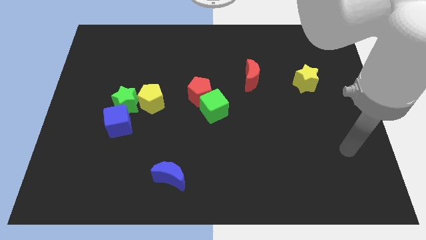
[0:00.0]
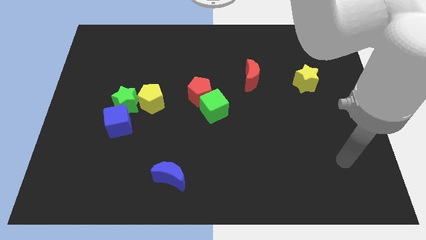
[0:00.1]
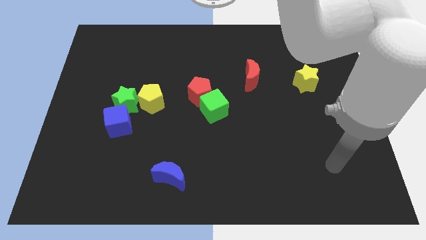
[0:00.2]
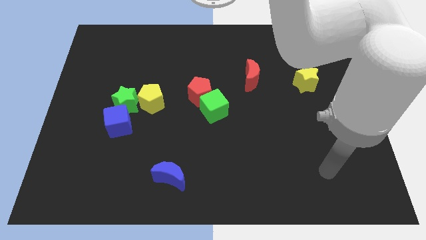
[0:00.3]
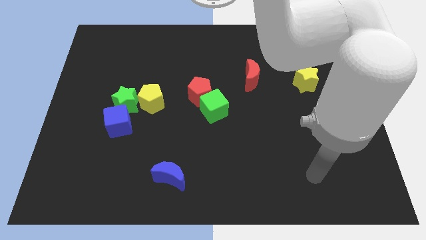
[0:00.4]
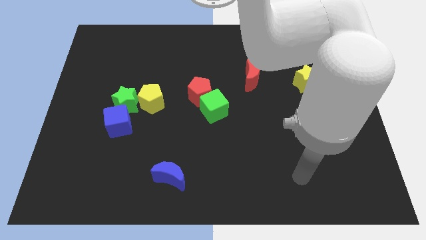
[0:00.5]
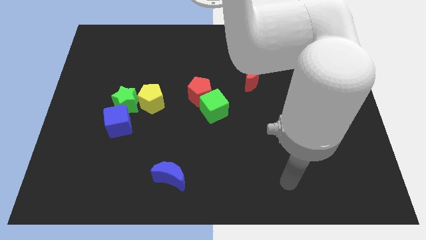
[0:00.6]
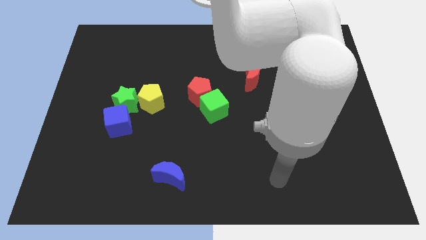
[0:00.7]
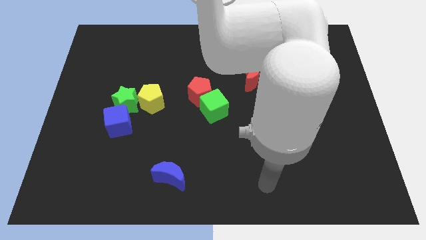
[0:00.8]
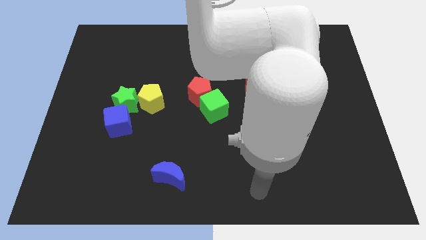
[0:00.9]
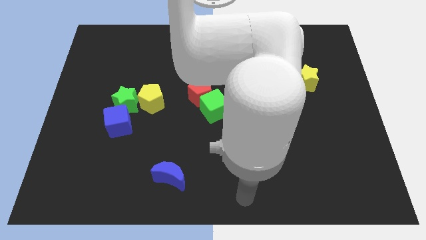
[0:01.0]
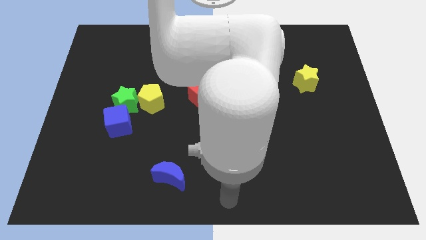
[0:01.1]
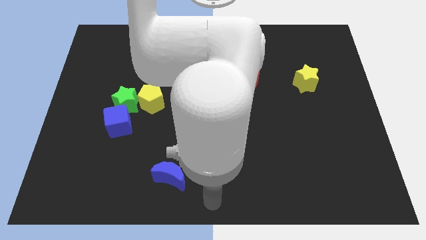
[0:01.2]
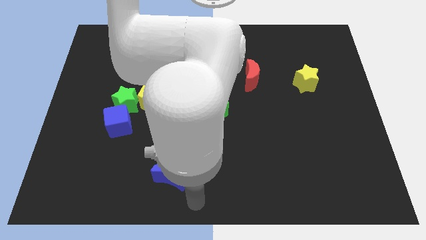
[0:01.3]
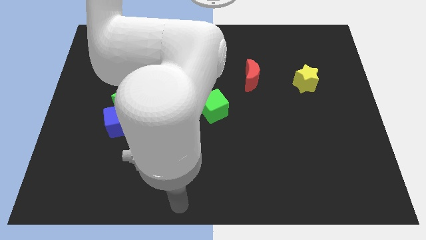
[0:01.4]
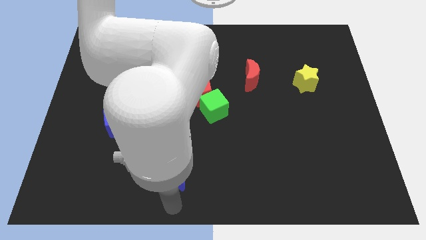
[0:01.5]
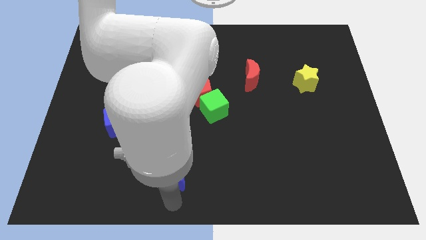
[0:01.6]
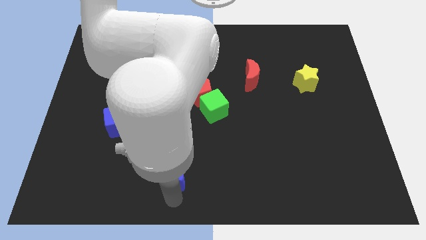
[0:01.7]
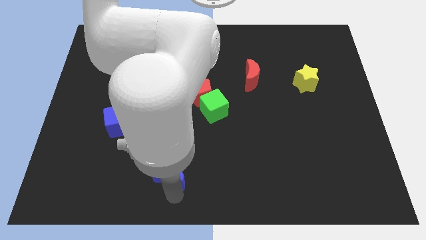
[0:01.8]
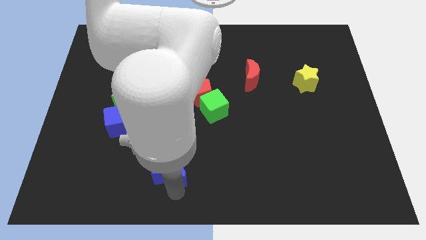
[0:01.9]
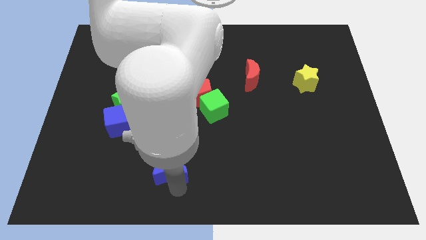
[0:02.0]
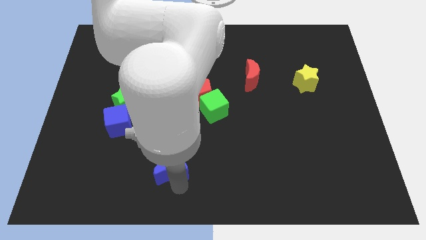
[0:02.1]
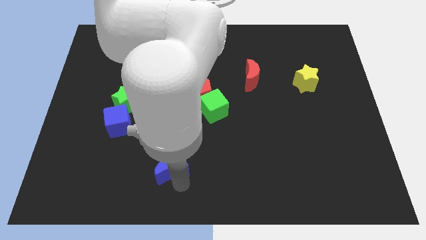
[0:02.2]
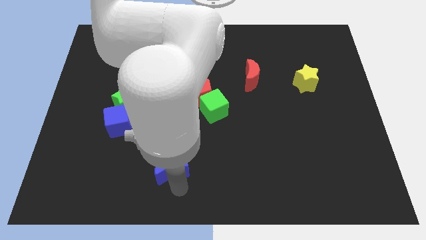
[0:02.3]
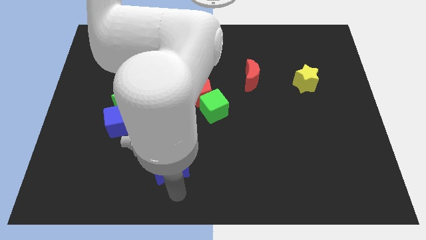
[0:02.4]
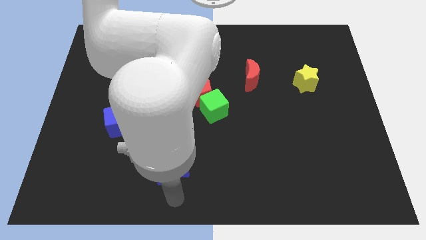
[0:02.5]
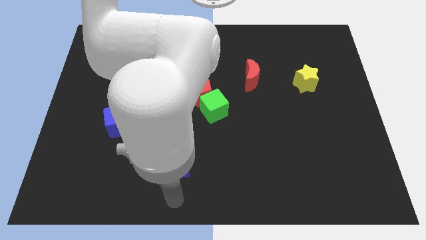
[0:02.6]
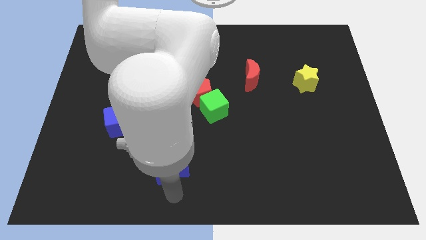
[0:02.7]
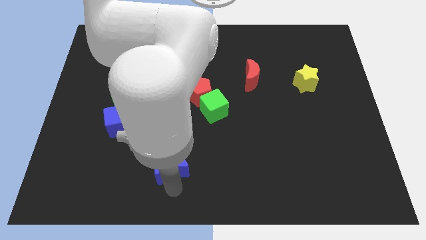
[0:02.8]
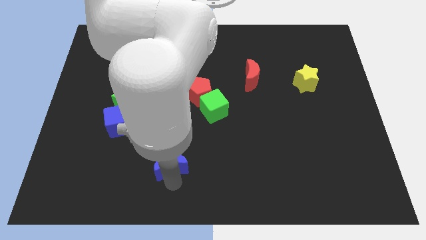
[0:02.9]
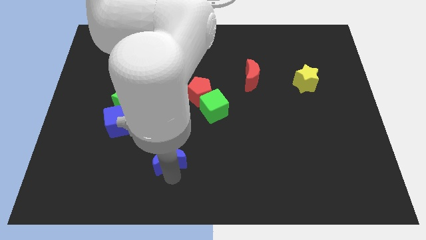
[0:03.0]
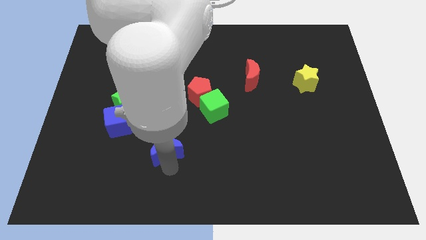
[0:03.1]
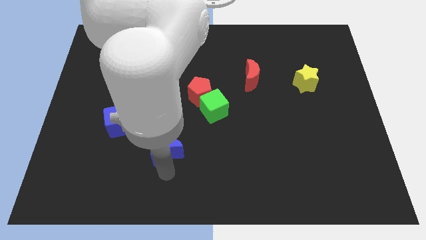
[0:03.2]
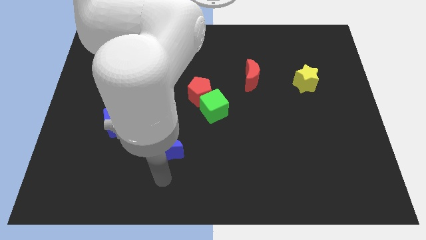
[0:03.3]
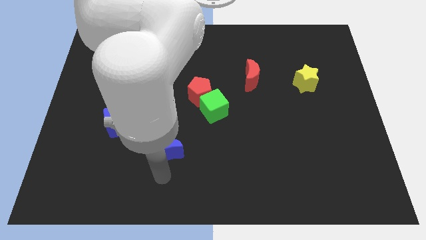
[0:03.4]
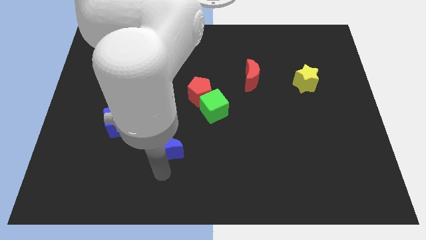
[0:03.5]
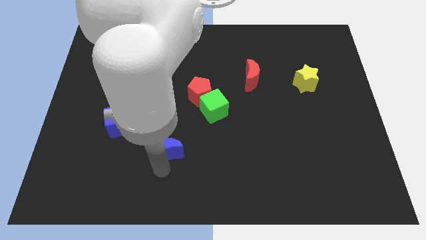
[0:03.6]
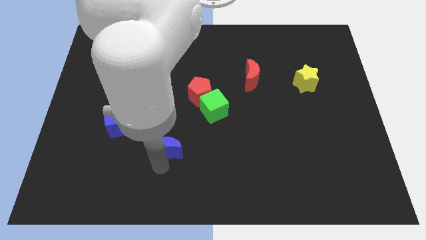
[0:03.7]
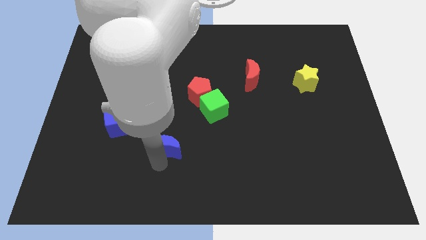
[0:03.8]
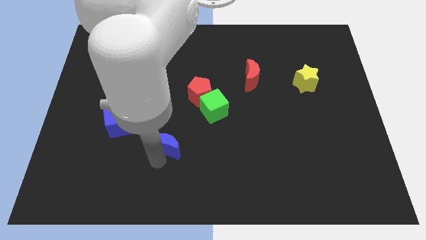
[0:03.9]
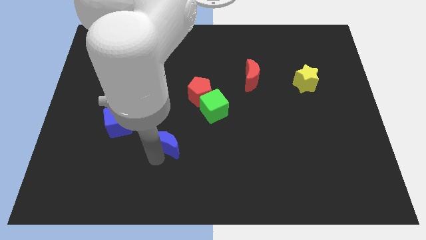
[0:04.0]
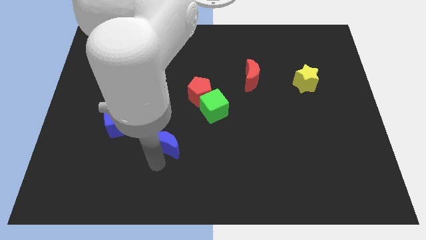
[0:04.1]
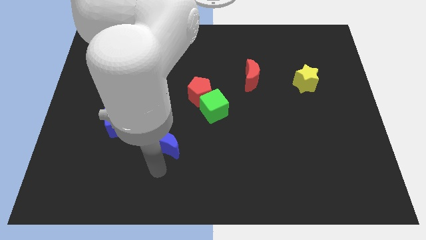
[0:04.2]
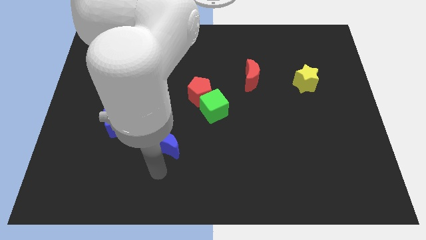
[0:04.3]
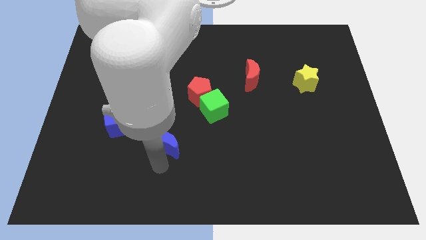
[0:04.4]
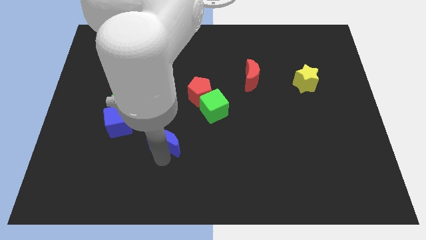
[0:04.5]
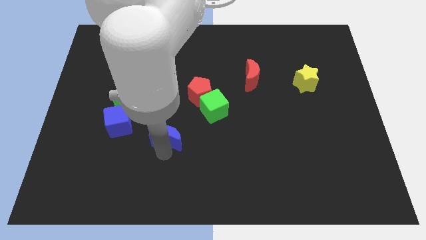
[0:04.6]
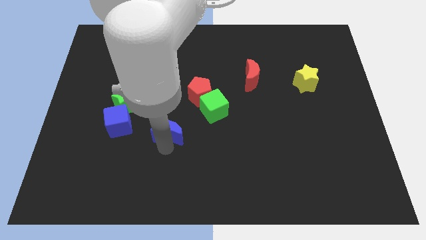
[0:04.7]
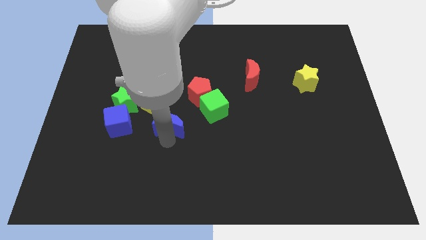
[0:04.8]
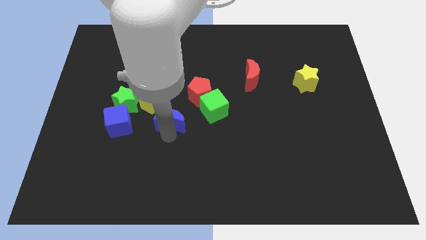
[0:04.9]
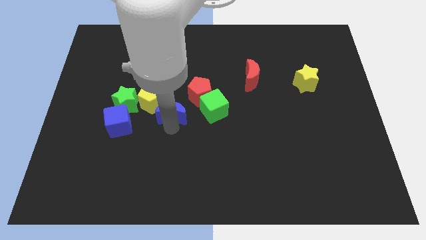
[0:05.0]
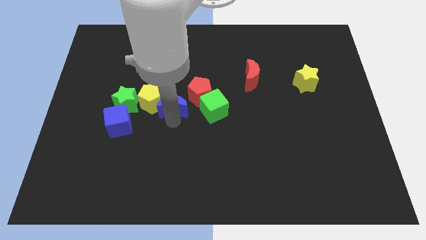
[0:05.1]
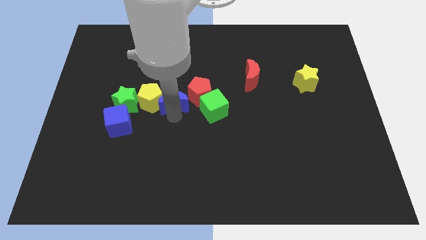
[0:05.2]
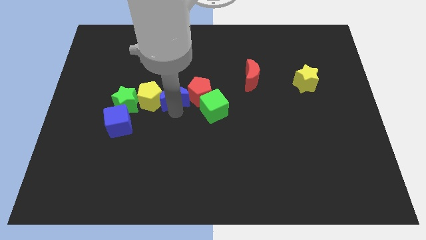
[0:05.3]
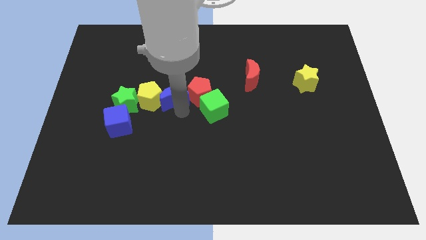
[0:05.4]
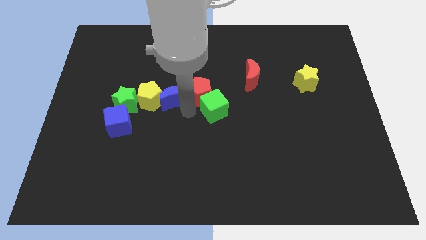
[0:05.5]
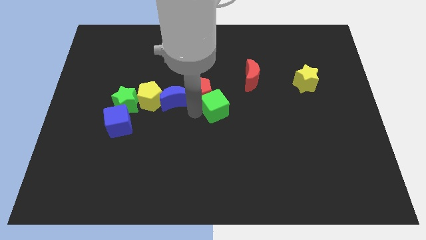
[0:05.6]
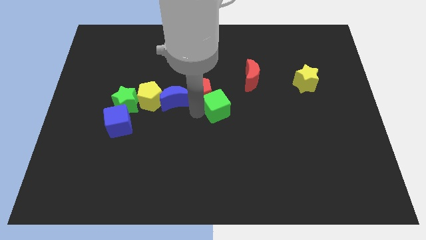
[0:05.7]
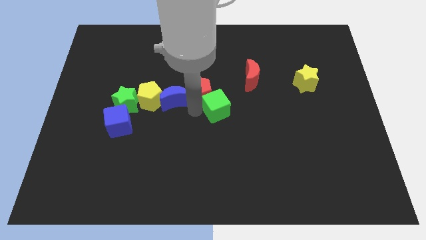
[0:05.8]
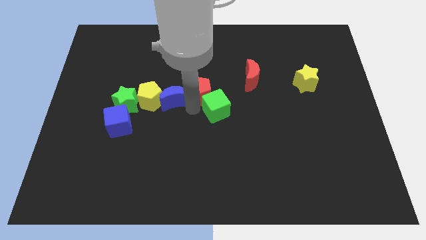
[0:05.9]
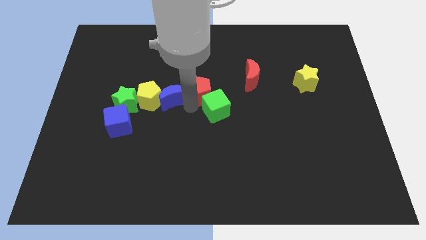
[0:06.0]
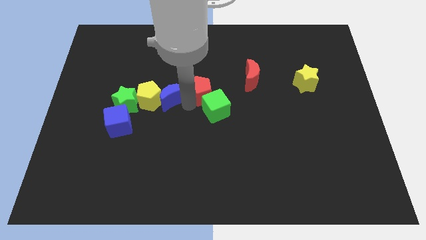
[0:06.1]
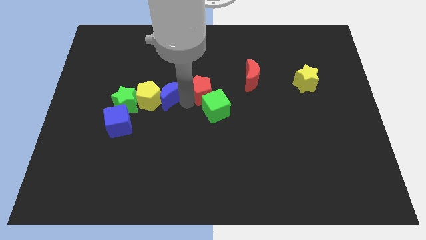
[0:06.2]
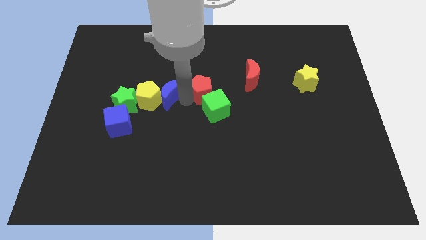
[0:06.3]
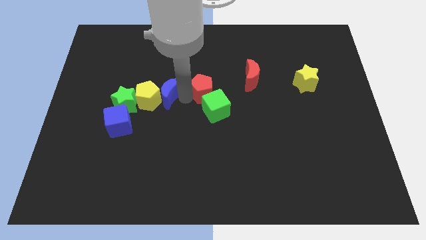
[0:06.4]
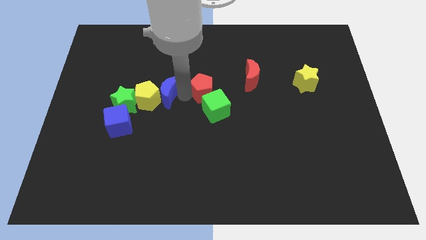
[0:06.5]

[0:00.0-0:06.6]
slide the blue moon to the top right of the green star

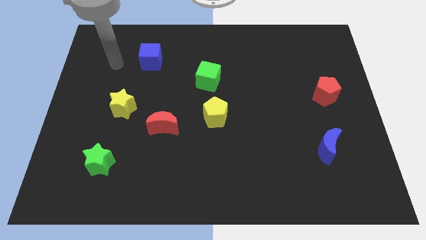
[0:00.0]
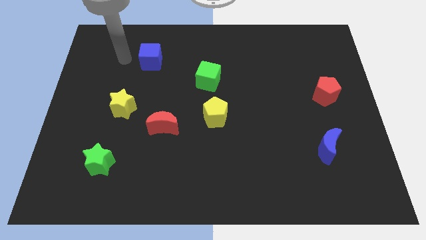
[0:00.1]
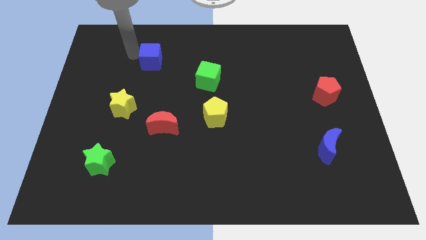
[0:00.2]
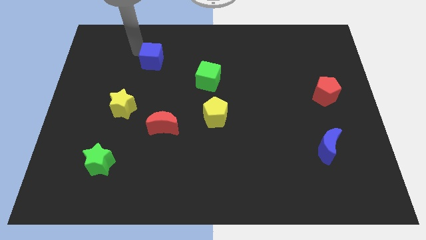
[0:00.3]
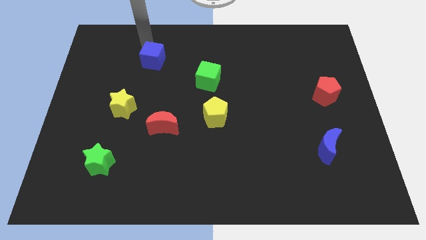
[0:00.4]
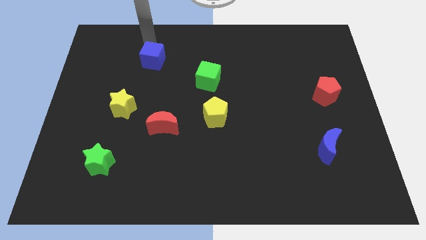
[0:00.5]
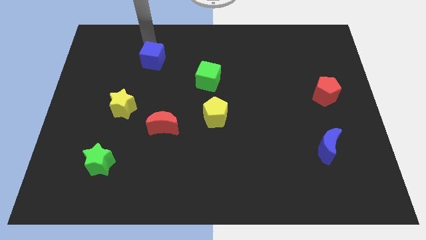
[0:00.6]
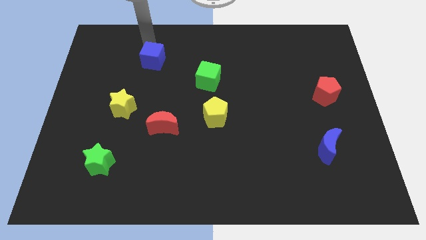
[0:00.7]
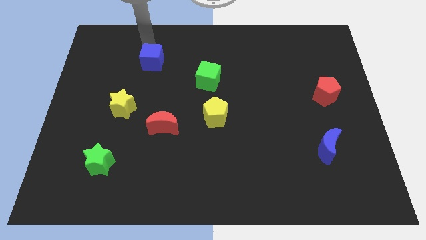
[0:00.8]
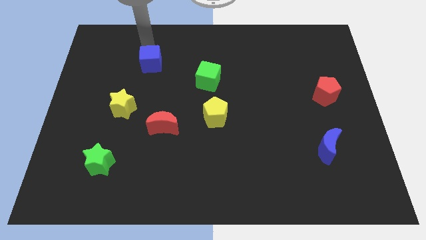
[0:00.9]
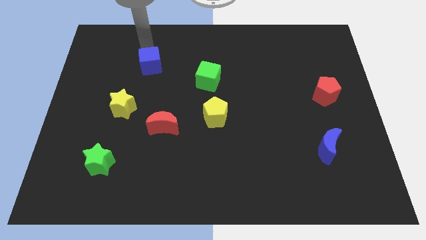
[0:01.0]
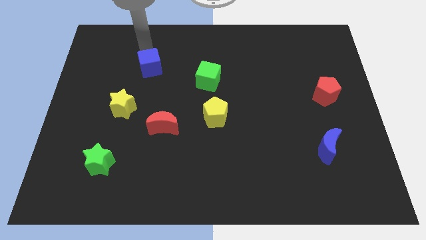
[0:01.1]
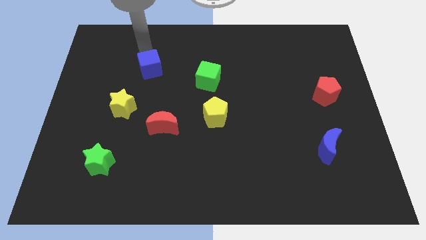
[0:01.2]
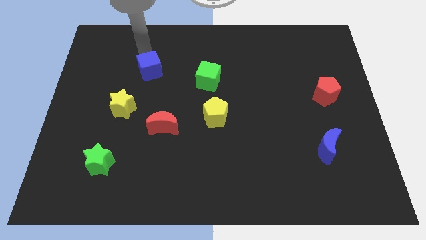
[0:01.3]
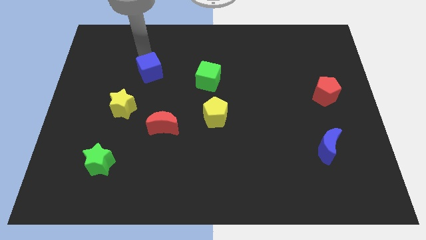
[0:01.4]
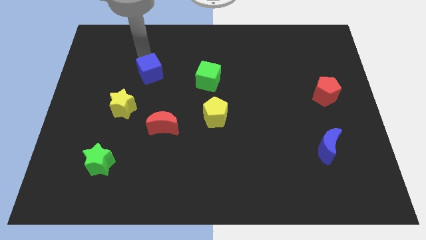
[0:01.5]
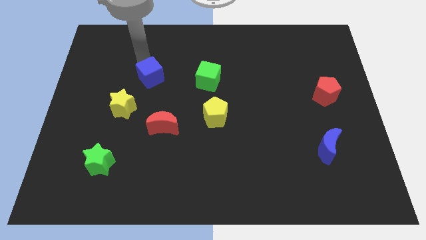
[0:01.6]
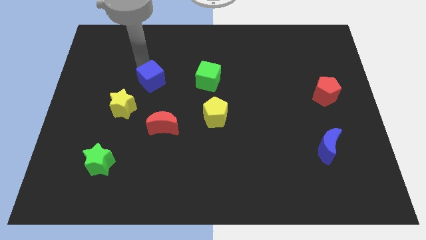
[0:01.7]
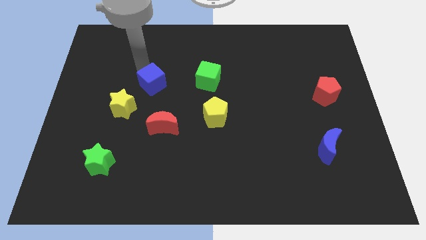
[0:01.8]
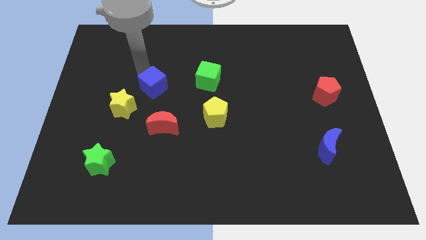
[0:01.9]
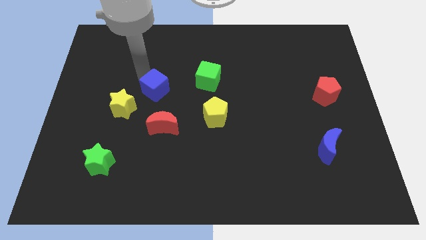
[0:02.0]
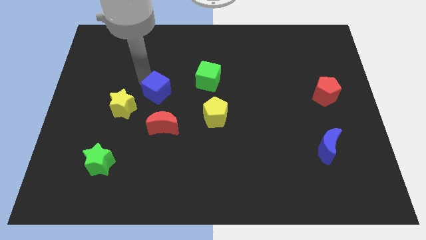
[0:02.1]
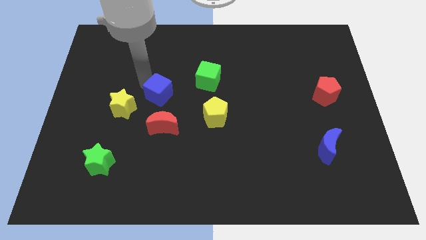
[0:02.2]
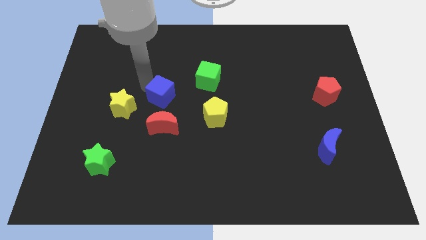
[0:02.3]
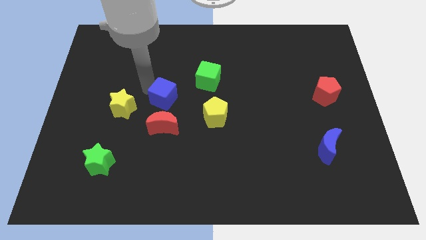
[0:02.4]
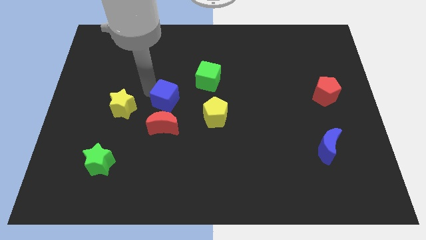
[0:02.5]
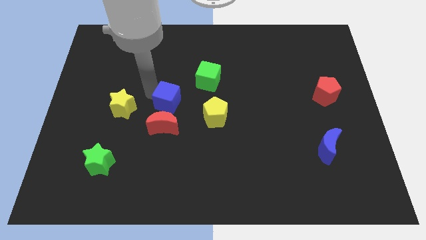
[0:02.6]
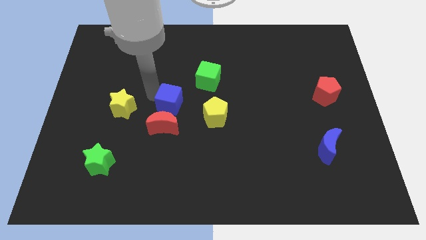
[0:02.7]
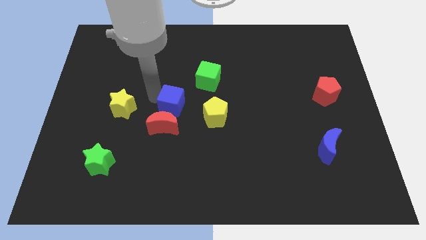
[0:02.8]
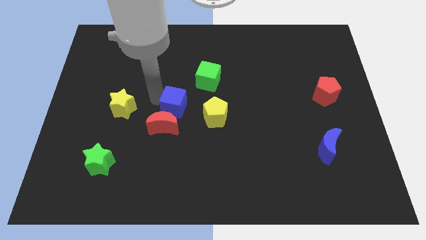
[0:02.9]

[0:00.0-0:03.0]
put the blue cube to the top left of the yellow pentagon
